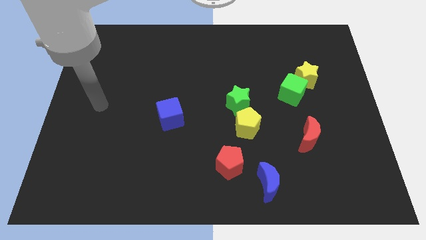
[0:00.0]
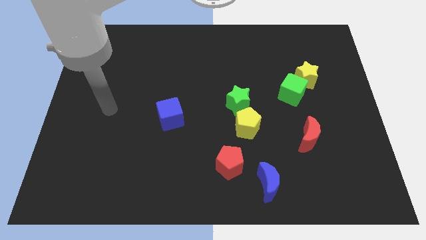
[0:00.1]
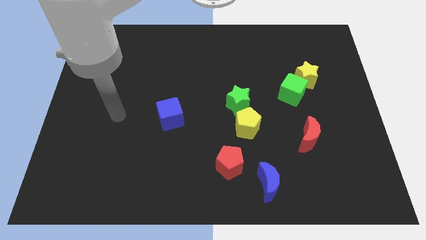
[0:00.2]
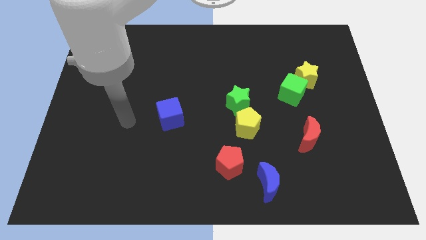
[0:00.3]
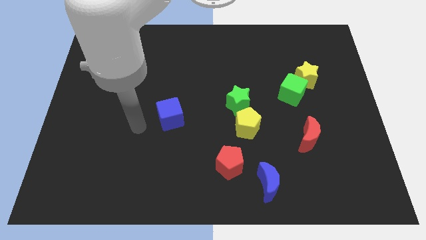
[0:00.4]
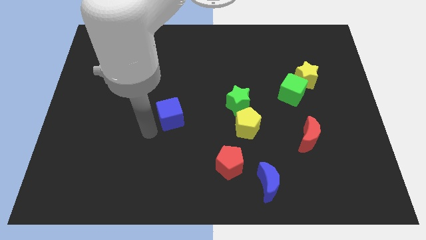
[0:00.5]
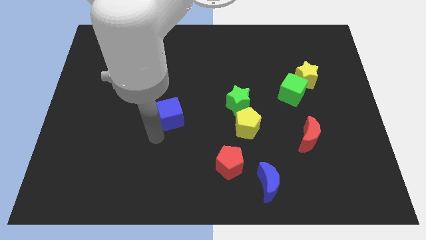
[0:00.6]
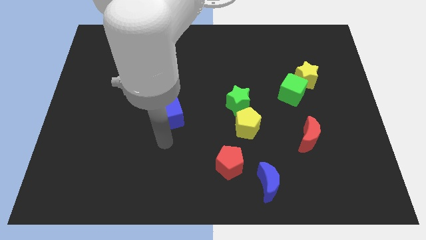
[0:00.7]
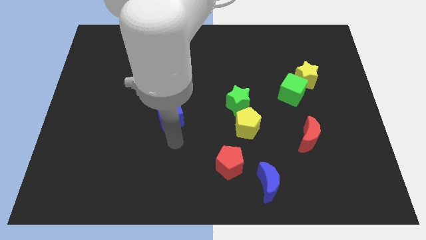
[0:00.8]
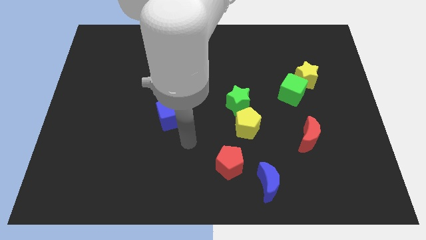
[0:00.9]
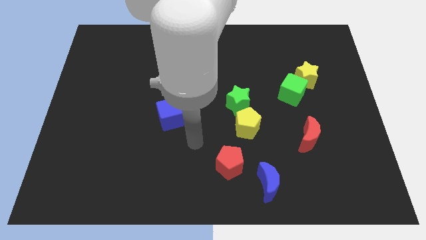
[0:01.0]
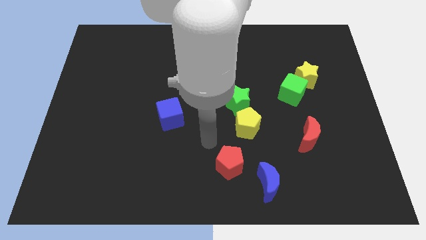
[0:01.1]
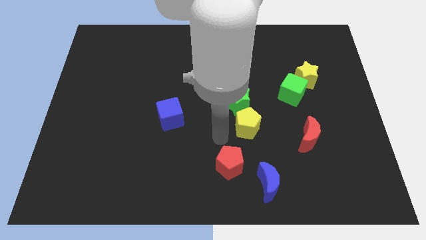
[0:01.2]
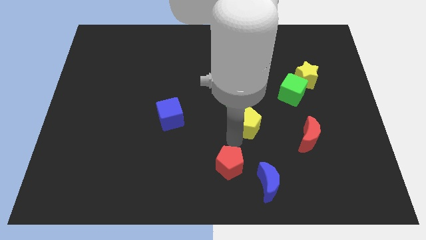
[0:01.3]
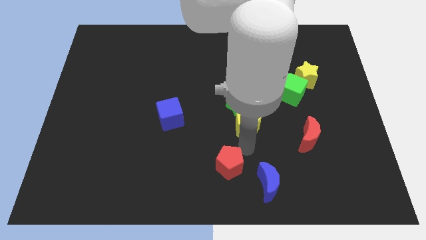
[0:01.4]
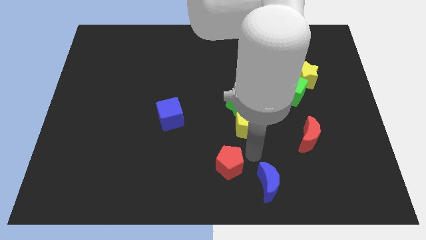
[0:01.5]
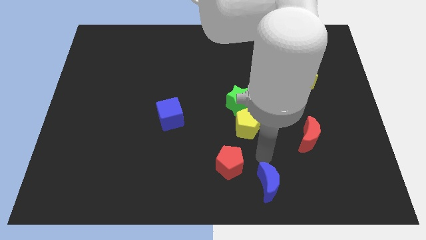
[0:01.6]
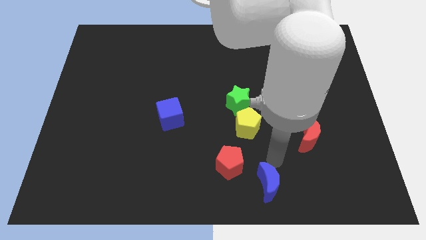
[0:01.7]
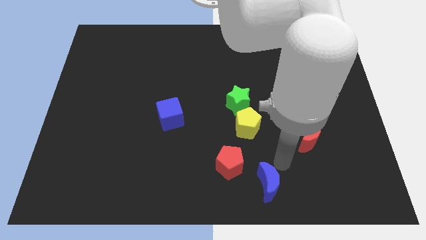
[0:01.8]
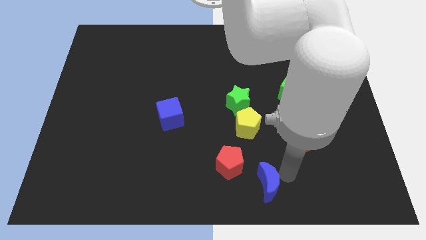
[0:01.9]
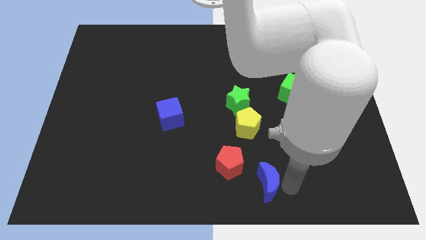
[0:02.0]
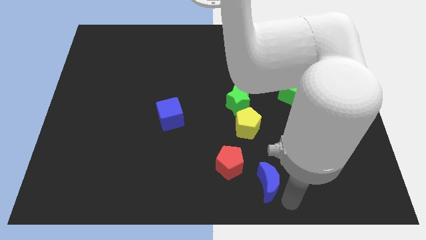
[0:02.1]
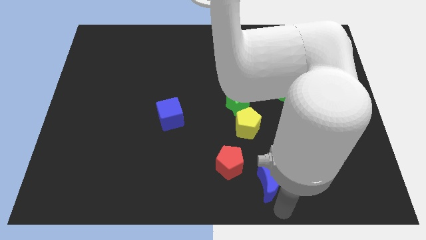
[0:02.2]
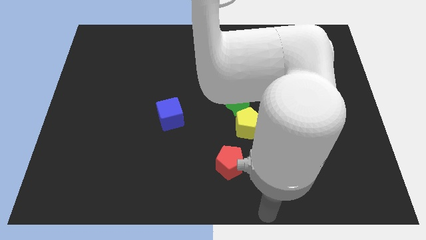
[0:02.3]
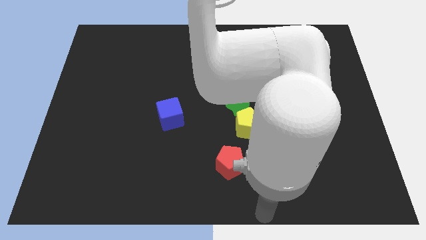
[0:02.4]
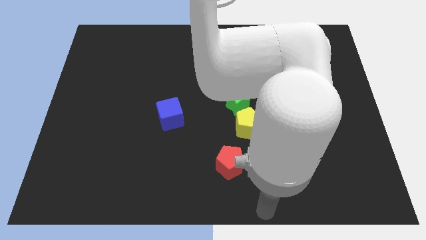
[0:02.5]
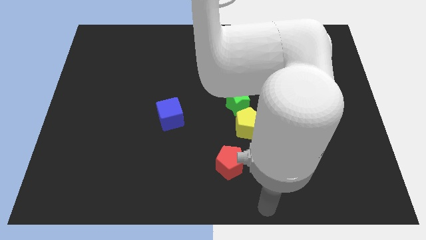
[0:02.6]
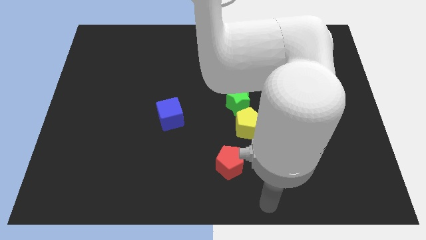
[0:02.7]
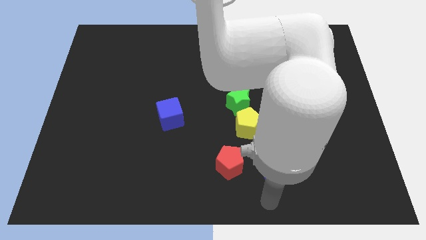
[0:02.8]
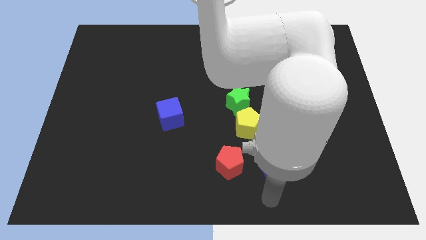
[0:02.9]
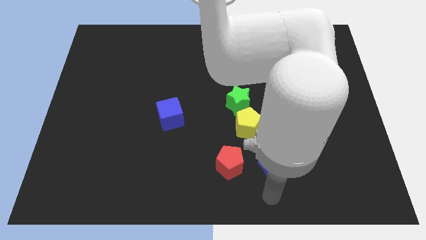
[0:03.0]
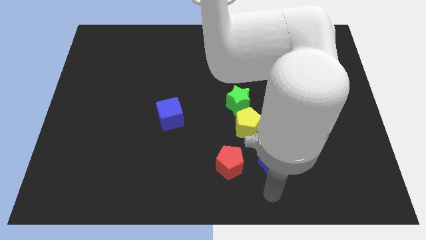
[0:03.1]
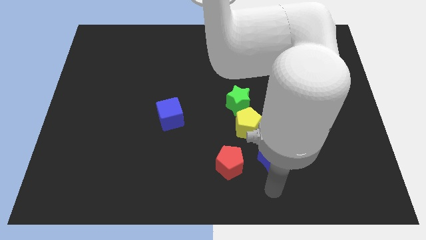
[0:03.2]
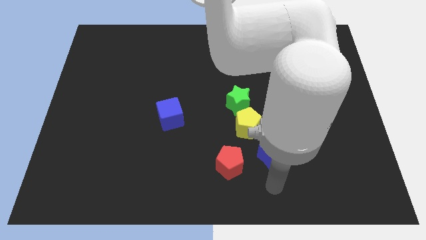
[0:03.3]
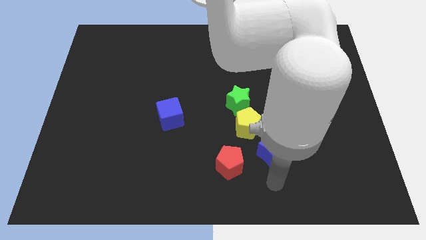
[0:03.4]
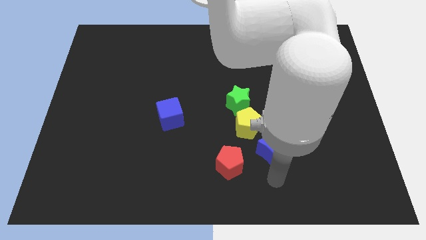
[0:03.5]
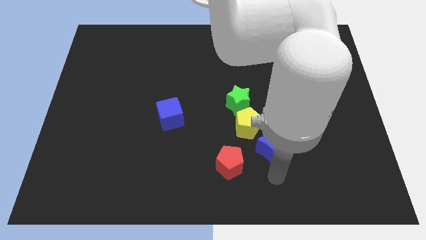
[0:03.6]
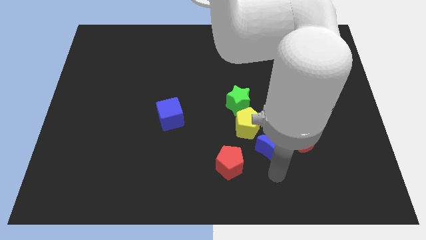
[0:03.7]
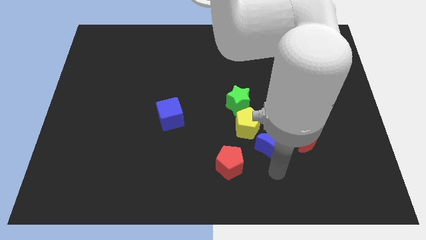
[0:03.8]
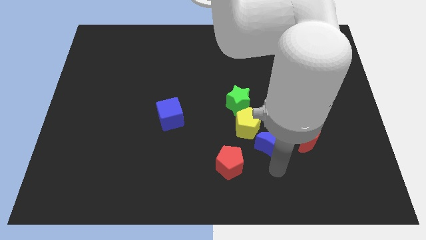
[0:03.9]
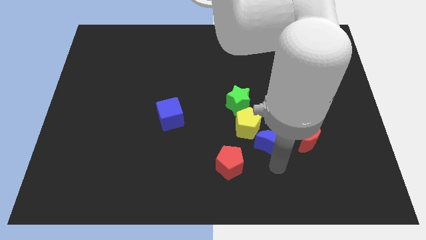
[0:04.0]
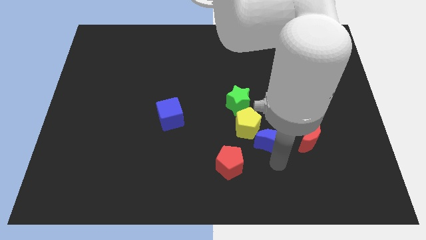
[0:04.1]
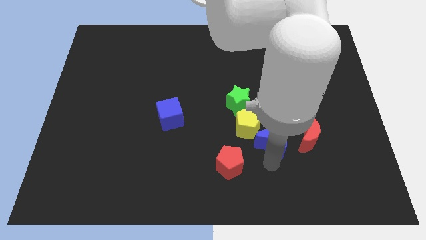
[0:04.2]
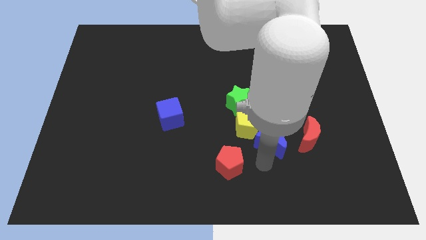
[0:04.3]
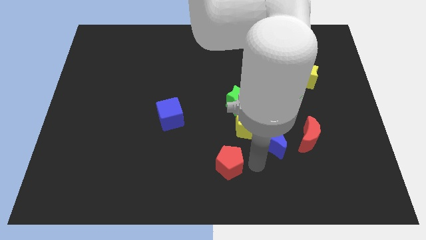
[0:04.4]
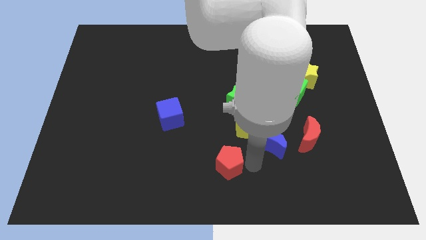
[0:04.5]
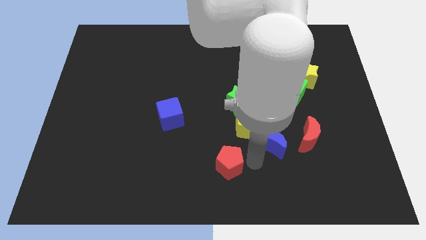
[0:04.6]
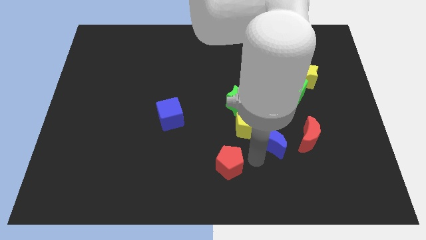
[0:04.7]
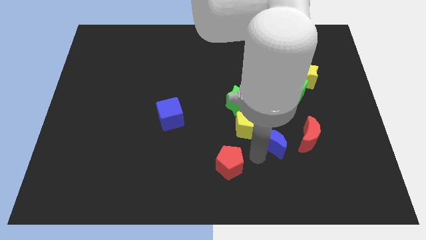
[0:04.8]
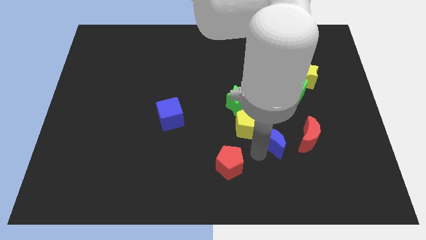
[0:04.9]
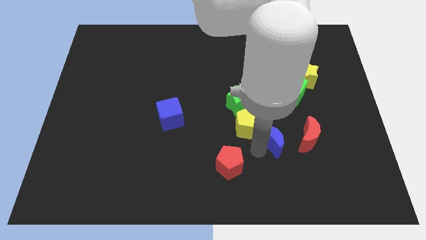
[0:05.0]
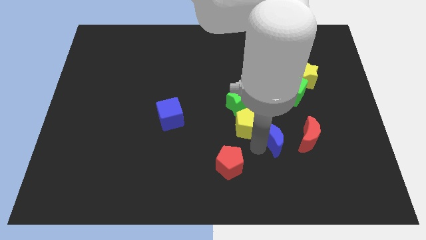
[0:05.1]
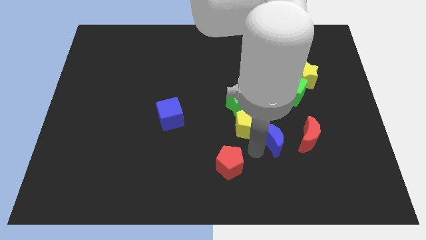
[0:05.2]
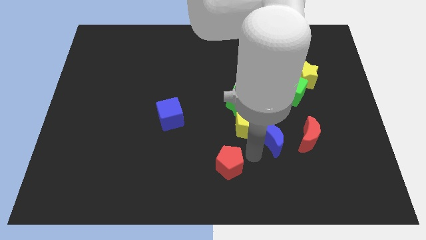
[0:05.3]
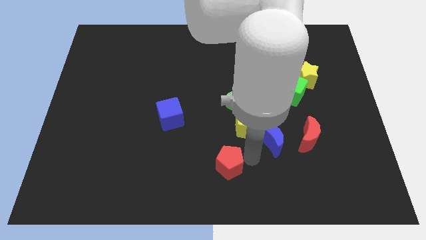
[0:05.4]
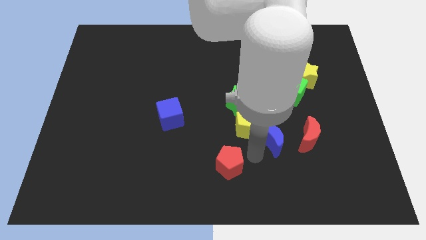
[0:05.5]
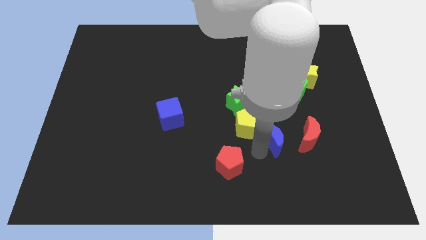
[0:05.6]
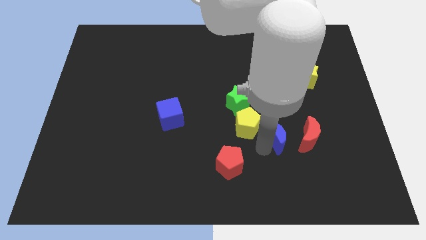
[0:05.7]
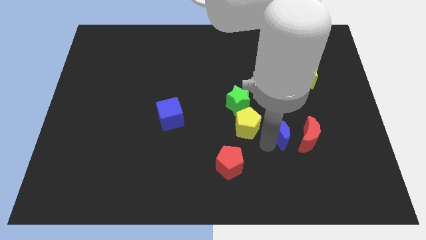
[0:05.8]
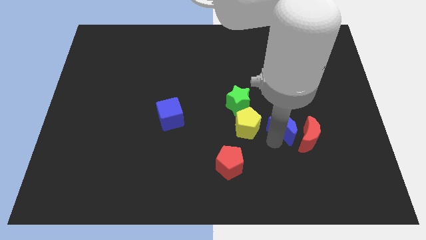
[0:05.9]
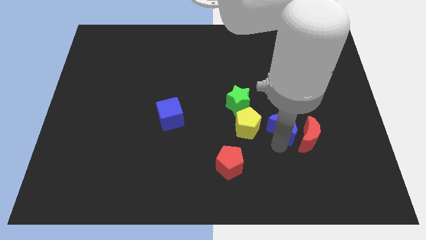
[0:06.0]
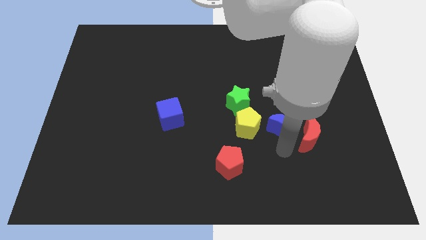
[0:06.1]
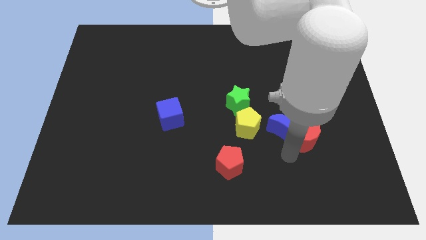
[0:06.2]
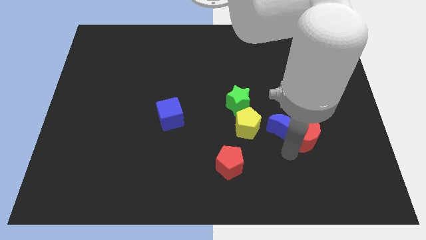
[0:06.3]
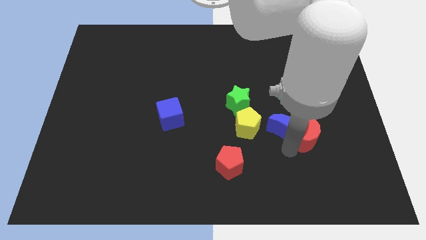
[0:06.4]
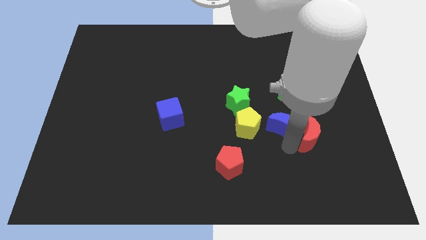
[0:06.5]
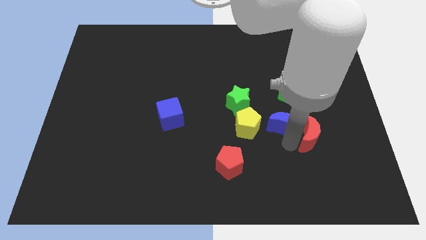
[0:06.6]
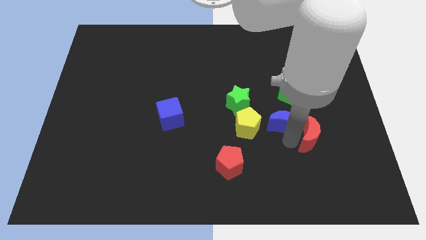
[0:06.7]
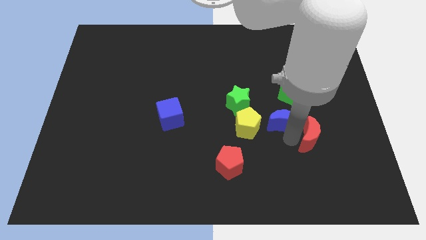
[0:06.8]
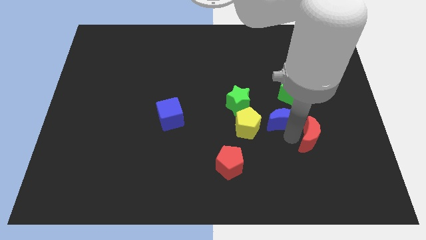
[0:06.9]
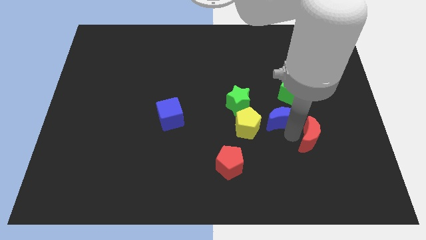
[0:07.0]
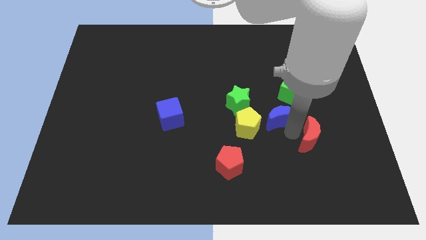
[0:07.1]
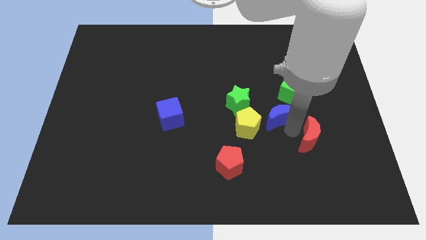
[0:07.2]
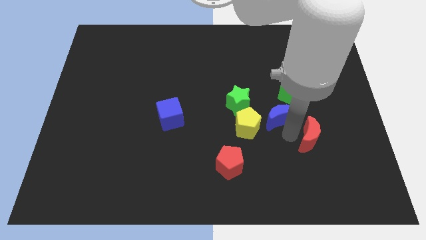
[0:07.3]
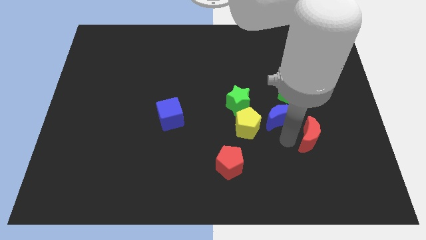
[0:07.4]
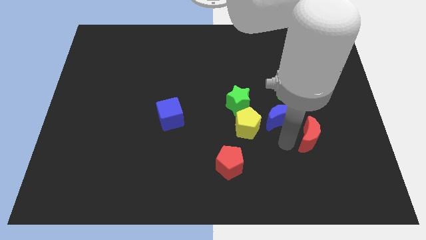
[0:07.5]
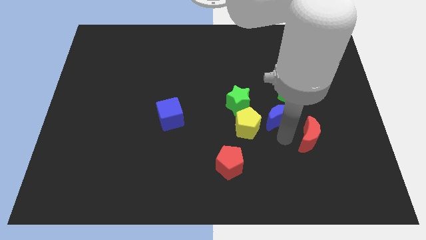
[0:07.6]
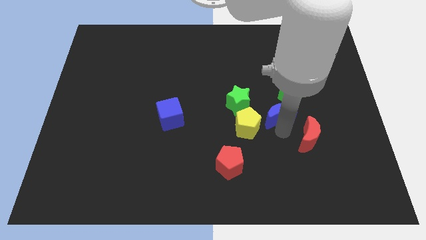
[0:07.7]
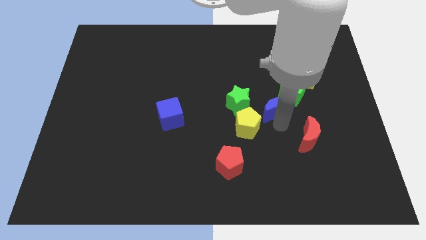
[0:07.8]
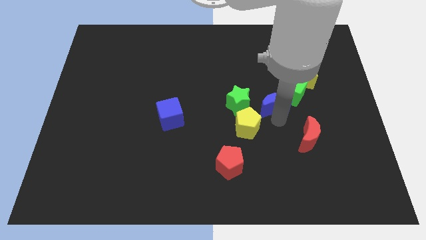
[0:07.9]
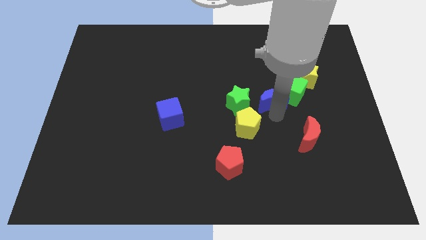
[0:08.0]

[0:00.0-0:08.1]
push the blue moon up

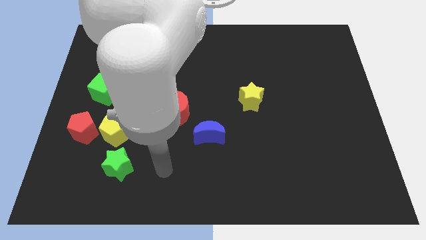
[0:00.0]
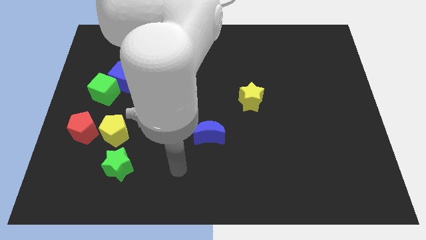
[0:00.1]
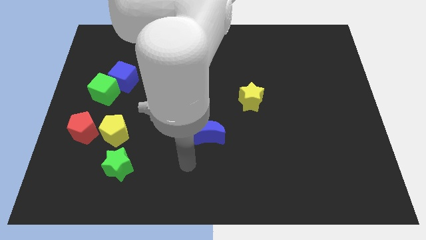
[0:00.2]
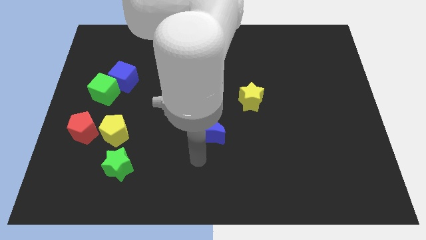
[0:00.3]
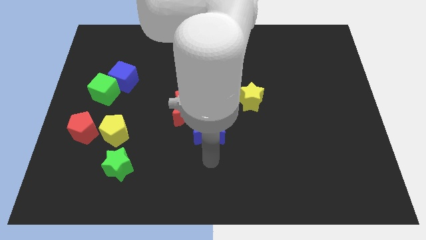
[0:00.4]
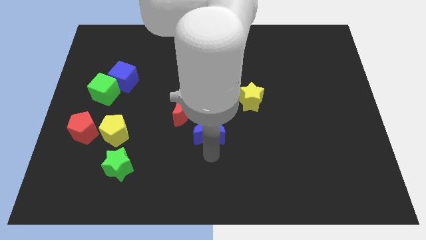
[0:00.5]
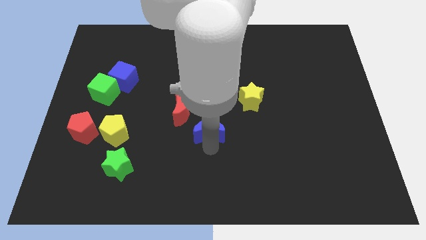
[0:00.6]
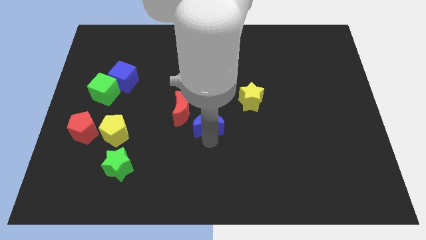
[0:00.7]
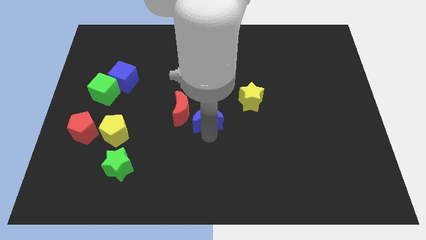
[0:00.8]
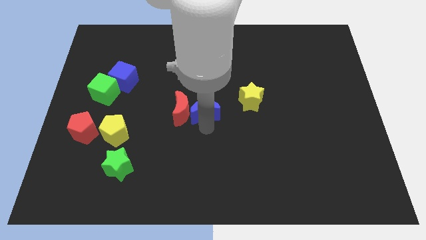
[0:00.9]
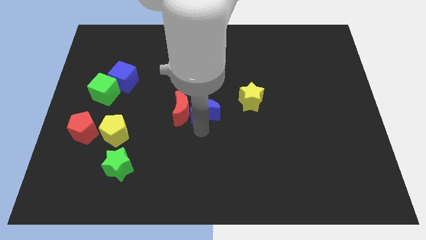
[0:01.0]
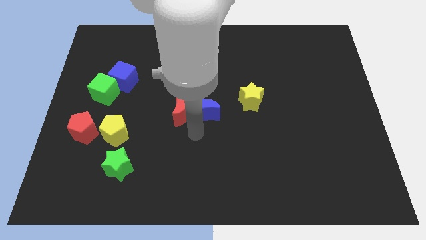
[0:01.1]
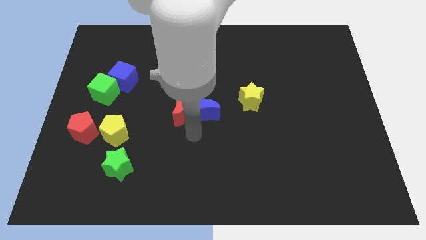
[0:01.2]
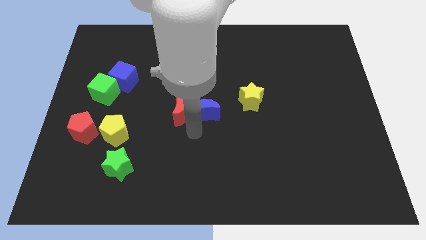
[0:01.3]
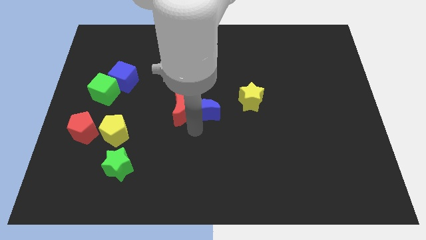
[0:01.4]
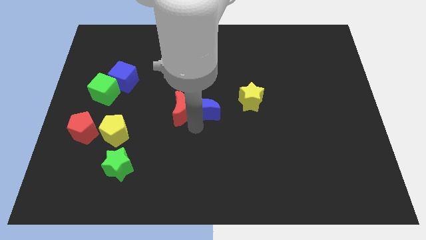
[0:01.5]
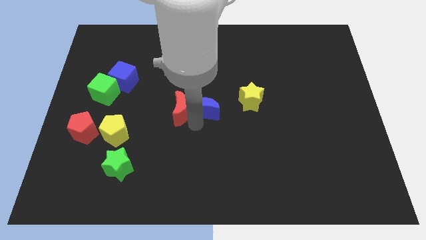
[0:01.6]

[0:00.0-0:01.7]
slightly push the blue moon upwards
